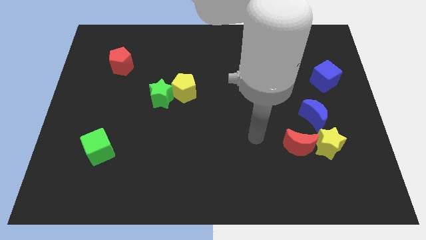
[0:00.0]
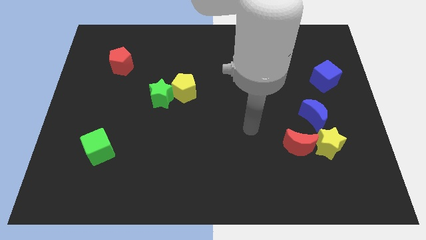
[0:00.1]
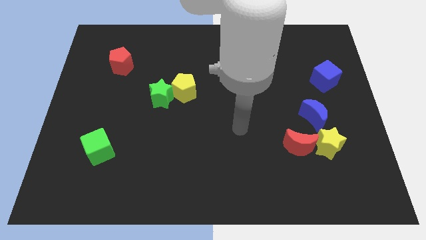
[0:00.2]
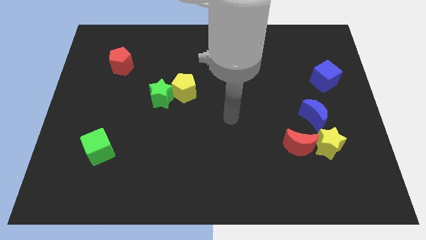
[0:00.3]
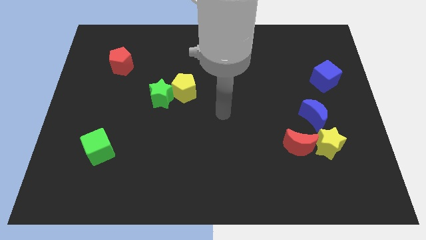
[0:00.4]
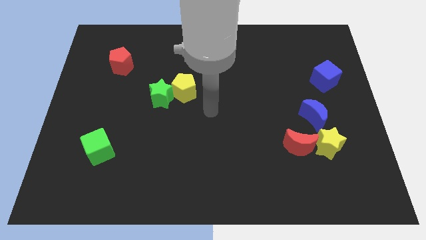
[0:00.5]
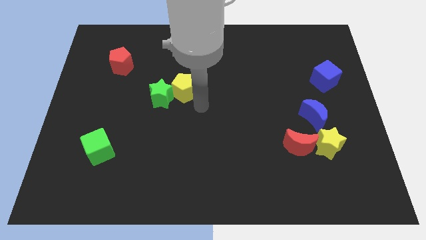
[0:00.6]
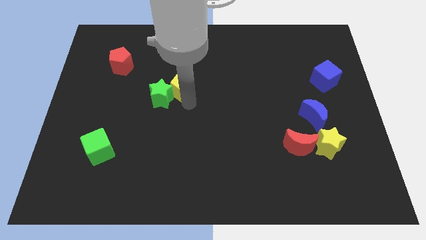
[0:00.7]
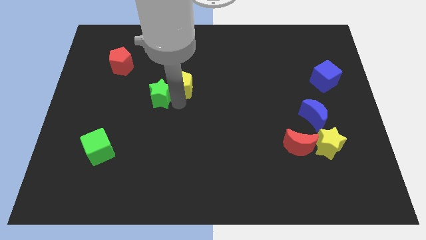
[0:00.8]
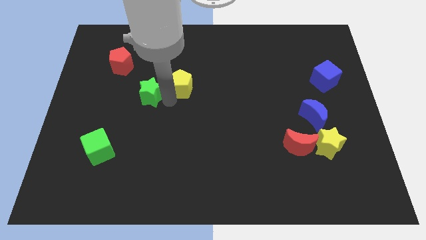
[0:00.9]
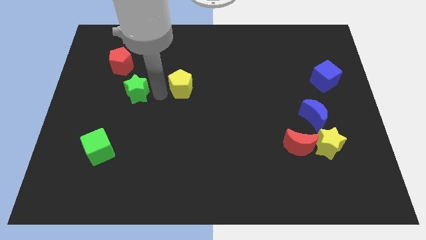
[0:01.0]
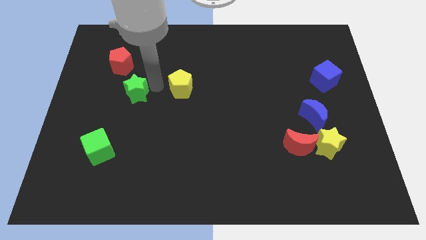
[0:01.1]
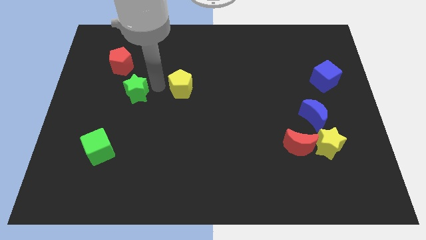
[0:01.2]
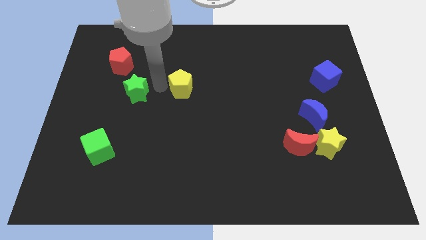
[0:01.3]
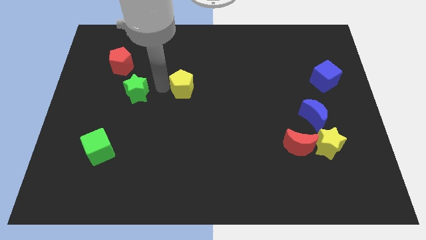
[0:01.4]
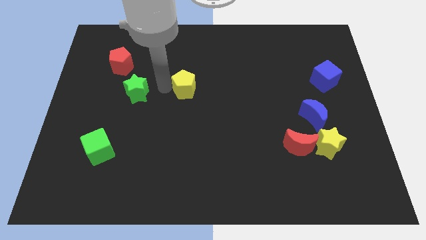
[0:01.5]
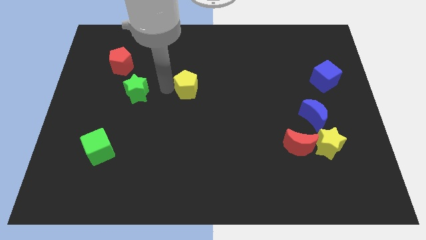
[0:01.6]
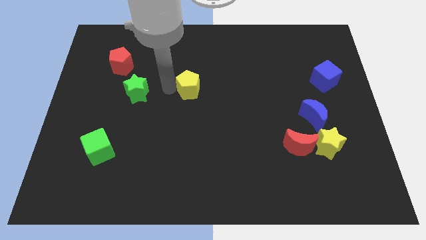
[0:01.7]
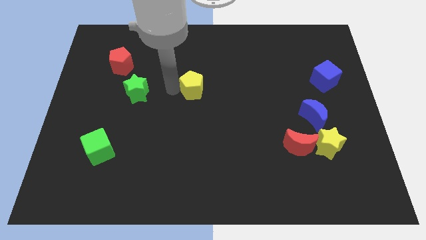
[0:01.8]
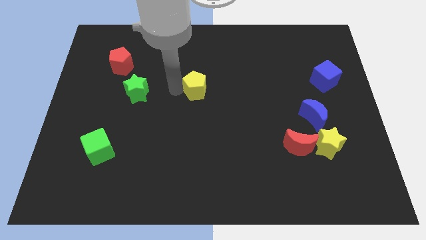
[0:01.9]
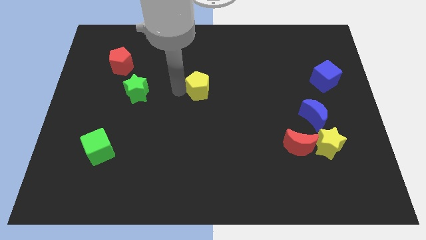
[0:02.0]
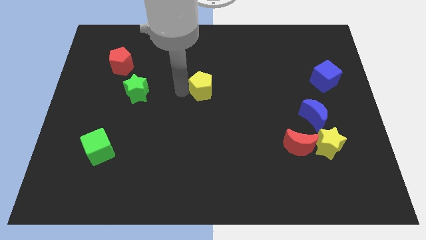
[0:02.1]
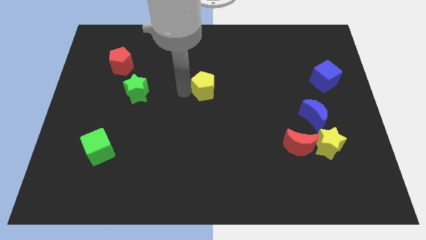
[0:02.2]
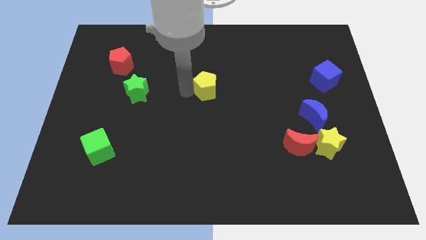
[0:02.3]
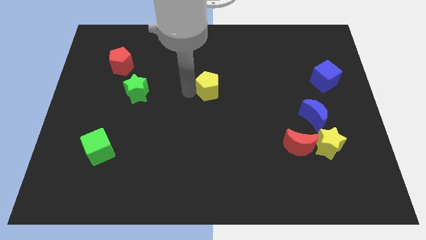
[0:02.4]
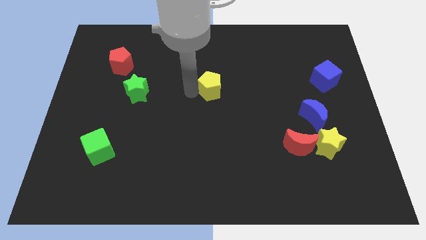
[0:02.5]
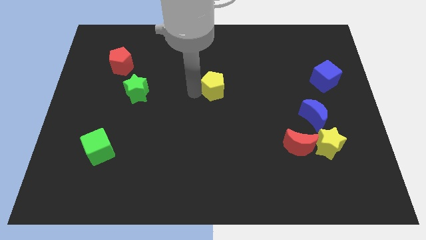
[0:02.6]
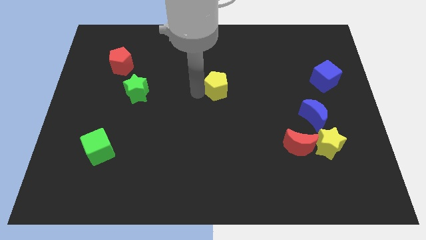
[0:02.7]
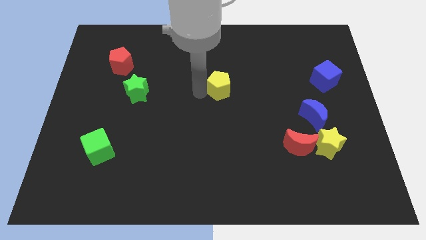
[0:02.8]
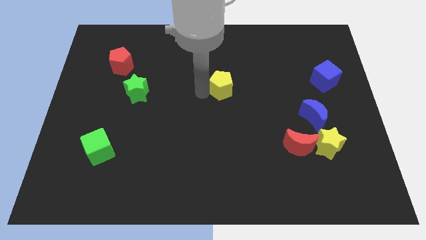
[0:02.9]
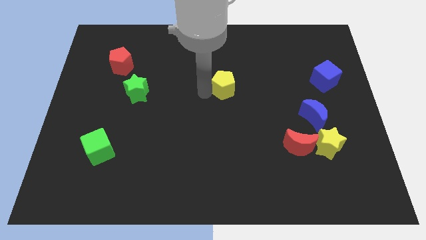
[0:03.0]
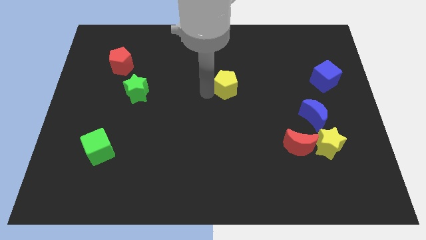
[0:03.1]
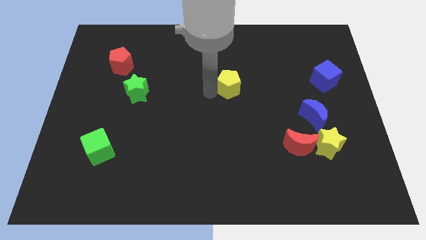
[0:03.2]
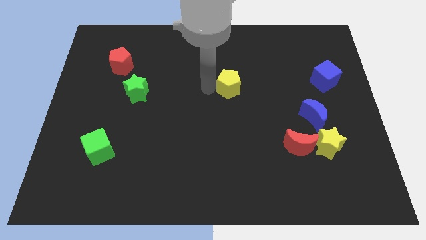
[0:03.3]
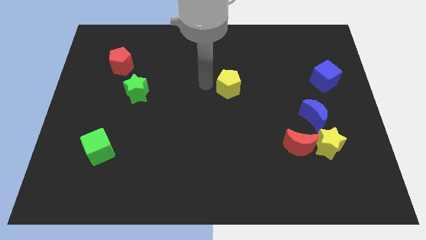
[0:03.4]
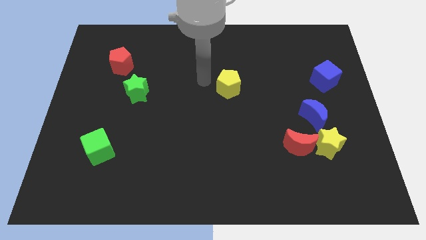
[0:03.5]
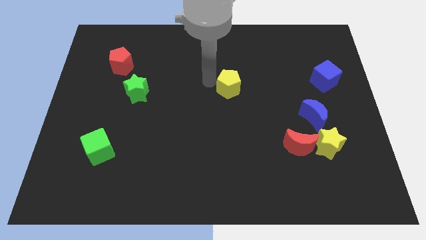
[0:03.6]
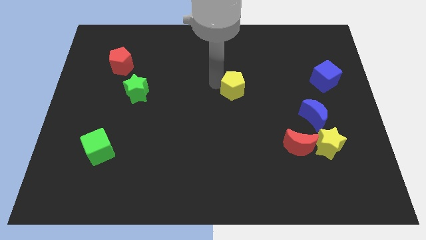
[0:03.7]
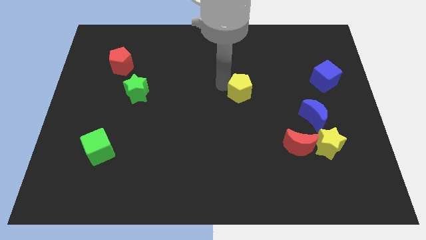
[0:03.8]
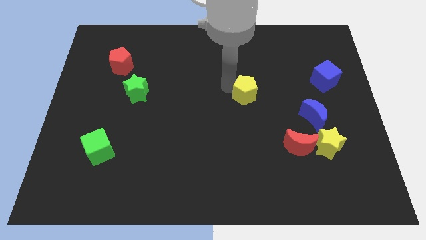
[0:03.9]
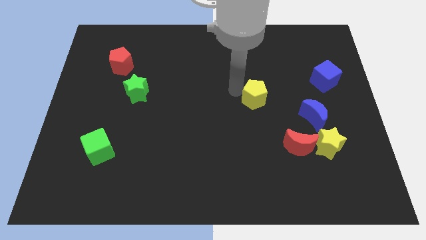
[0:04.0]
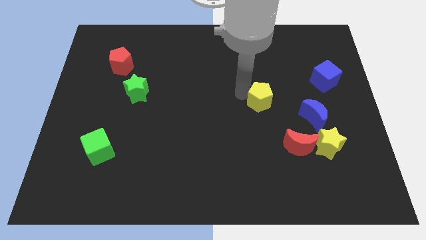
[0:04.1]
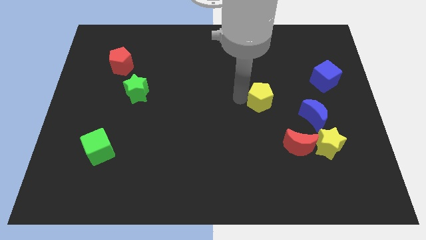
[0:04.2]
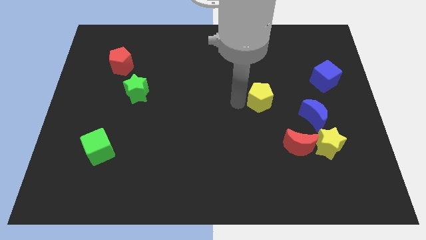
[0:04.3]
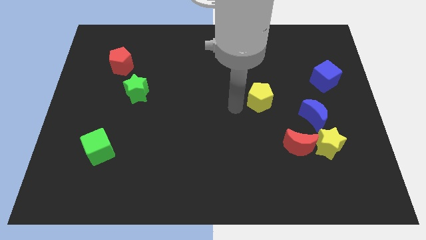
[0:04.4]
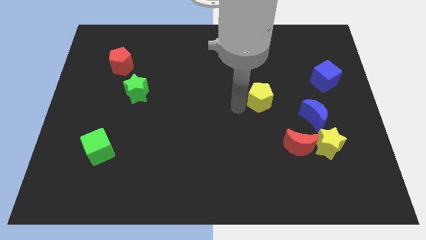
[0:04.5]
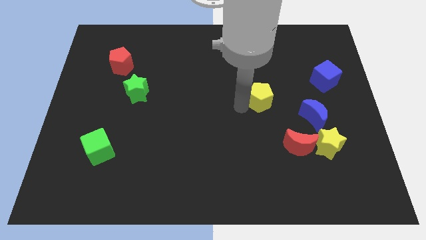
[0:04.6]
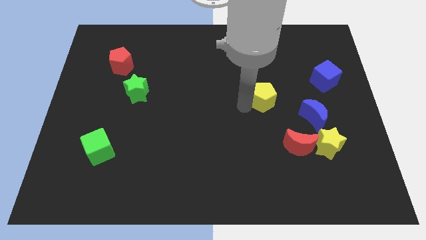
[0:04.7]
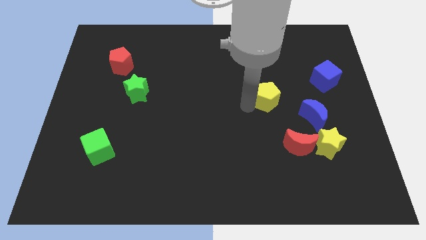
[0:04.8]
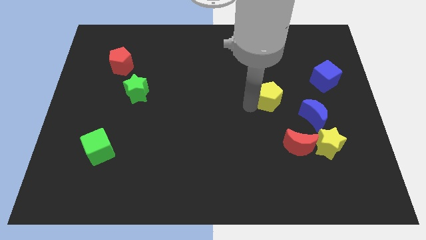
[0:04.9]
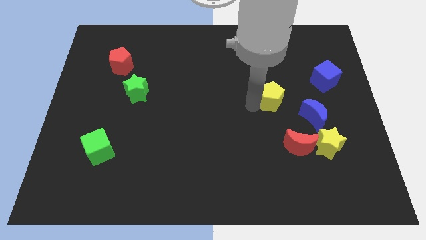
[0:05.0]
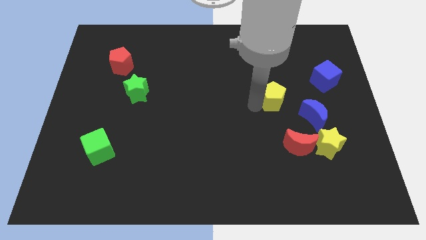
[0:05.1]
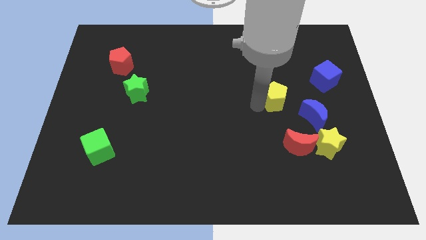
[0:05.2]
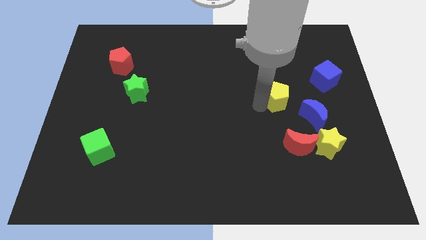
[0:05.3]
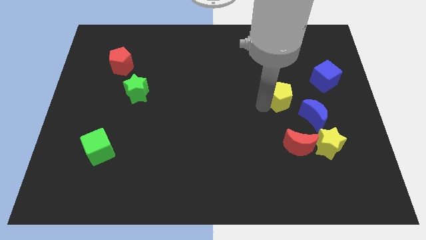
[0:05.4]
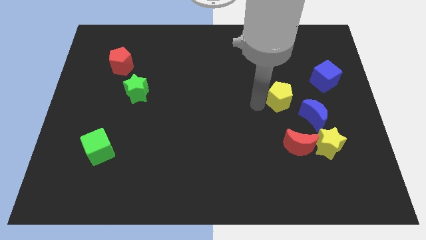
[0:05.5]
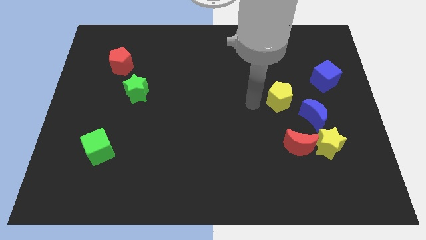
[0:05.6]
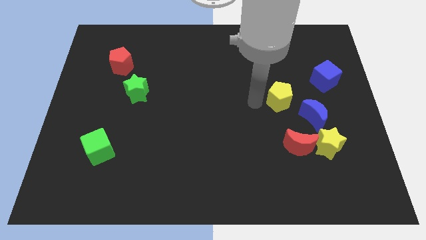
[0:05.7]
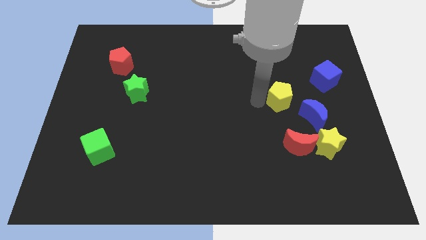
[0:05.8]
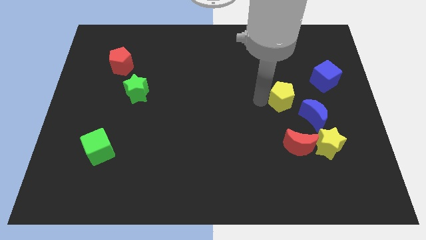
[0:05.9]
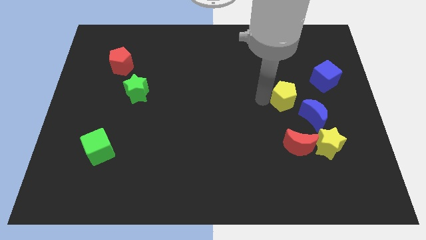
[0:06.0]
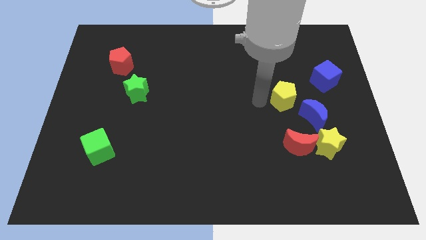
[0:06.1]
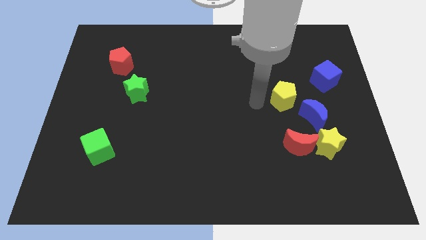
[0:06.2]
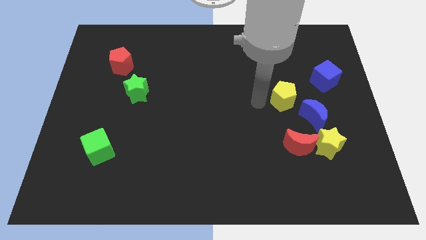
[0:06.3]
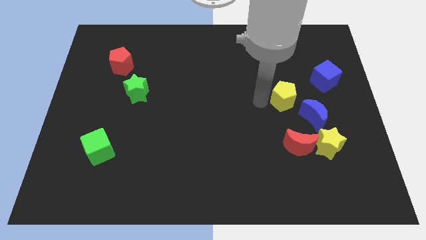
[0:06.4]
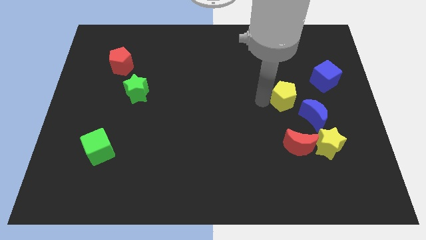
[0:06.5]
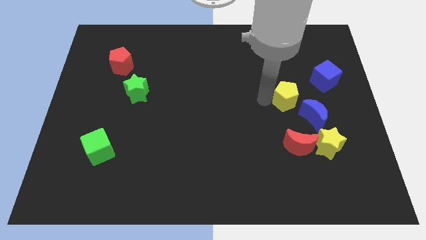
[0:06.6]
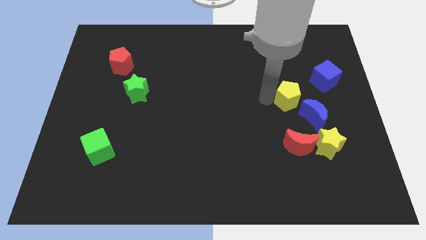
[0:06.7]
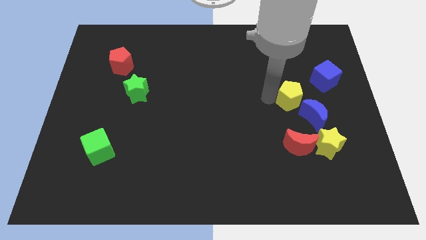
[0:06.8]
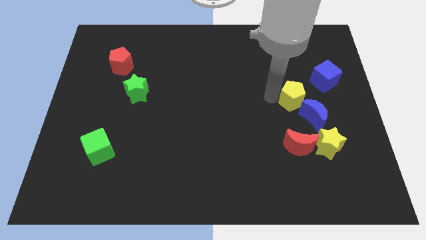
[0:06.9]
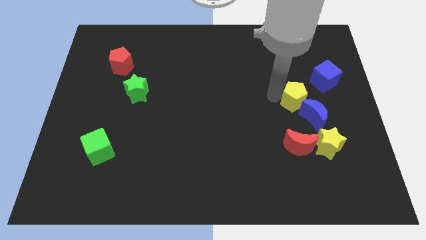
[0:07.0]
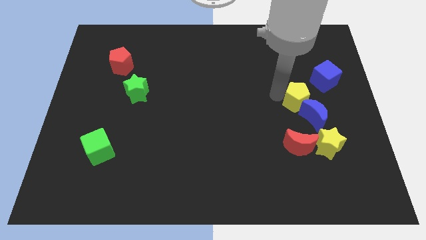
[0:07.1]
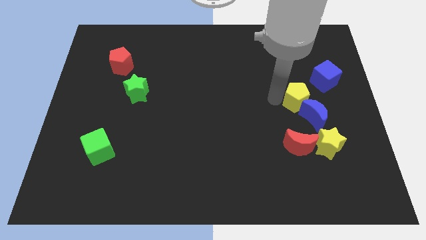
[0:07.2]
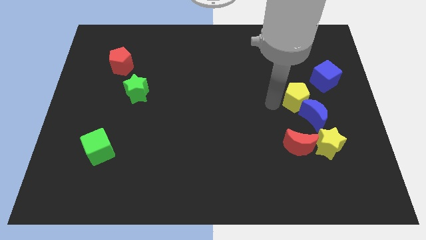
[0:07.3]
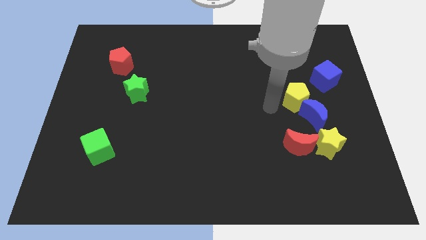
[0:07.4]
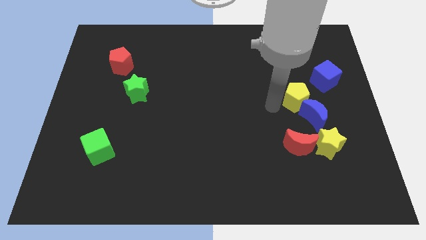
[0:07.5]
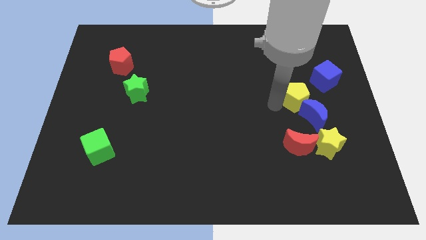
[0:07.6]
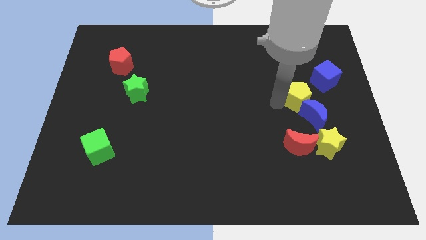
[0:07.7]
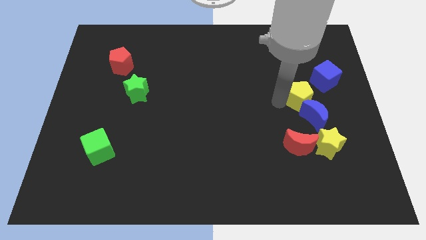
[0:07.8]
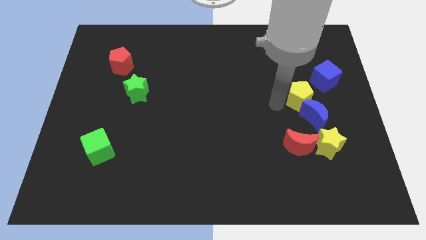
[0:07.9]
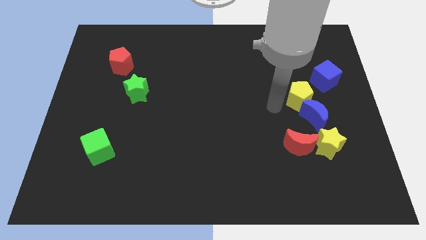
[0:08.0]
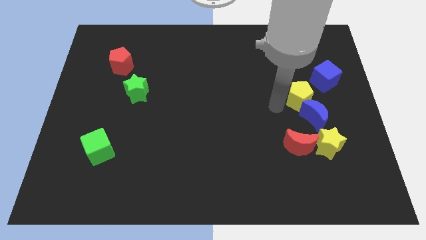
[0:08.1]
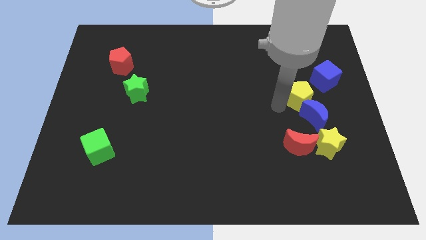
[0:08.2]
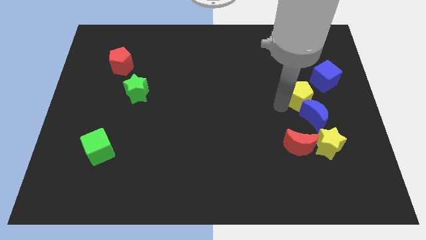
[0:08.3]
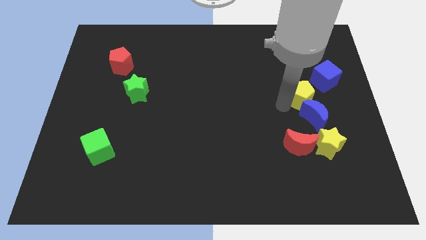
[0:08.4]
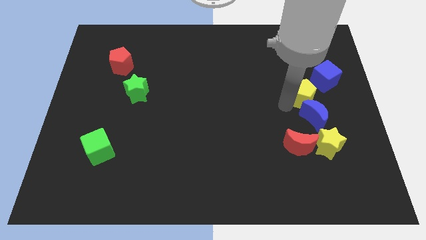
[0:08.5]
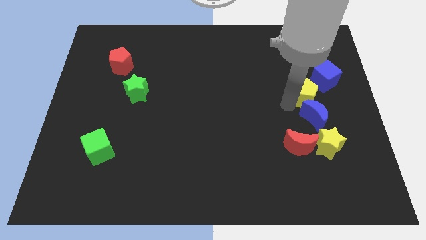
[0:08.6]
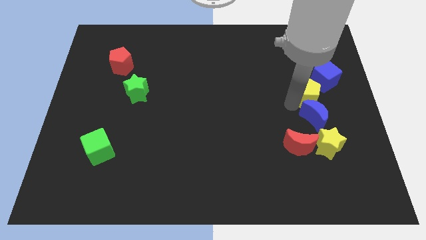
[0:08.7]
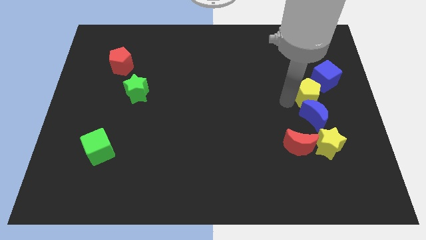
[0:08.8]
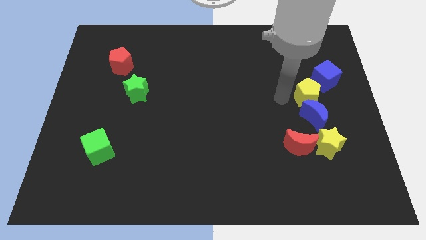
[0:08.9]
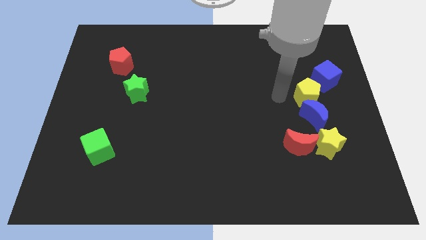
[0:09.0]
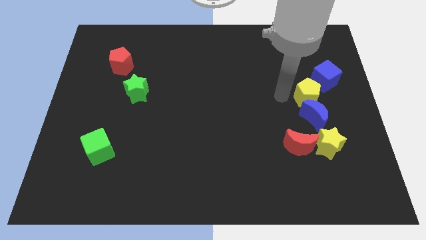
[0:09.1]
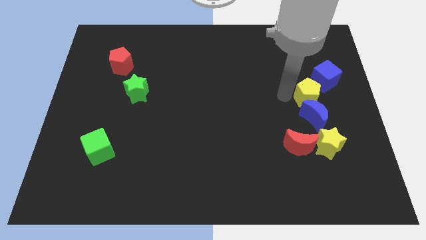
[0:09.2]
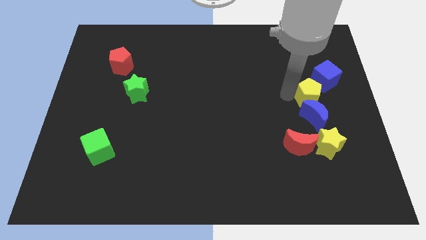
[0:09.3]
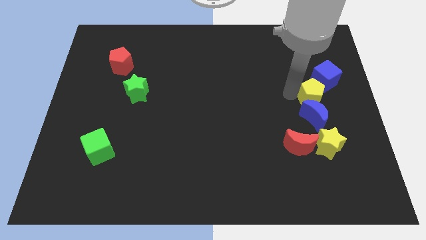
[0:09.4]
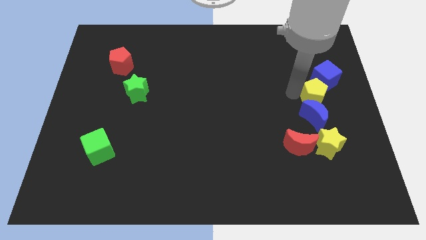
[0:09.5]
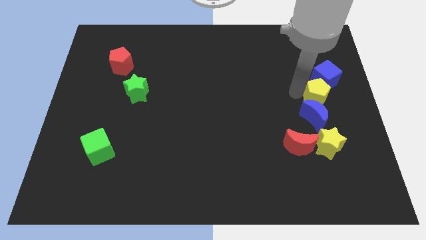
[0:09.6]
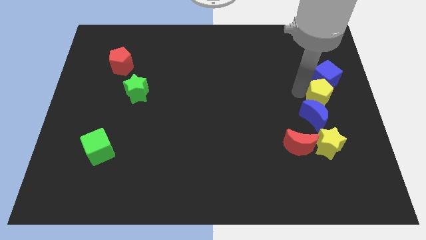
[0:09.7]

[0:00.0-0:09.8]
move the yellow pentagon to the right side of the board
